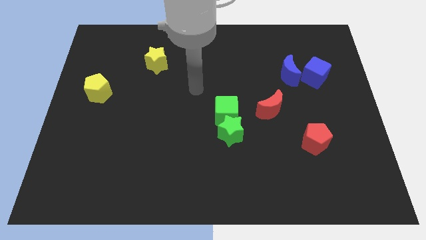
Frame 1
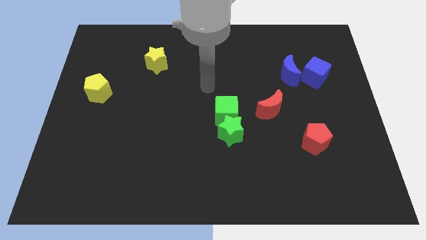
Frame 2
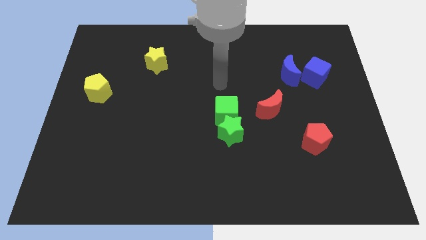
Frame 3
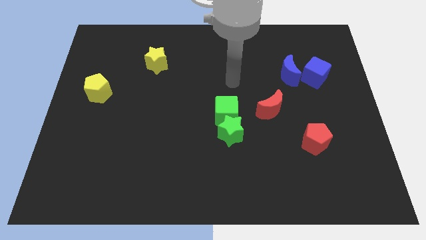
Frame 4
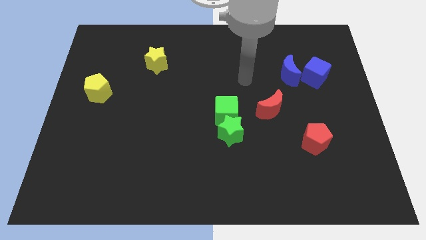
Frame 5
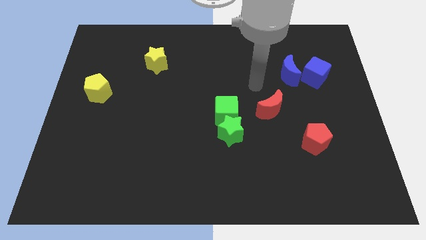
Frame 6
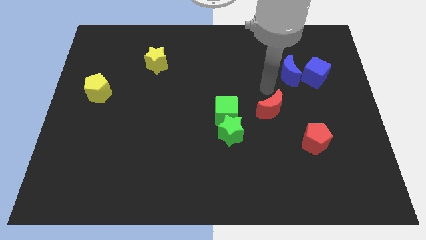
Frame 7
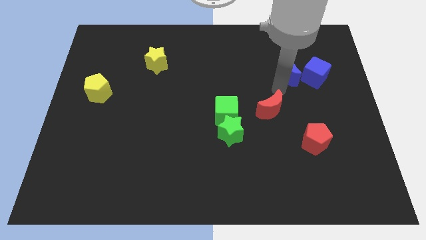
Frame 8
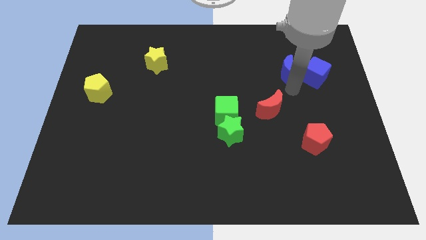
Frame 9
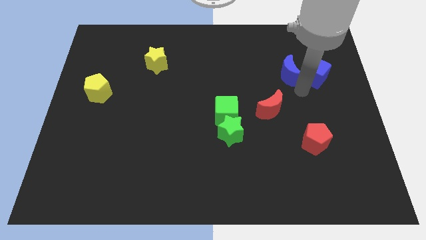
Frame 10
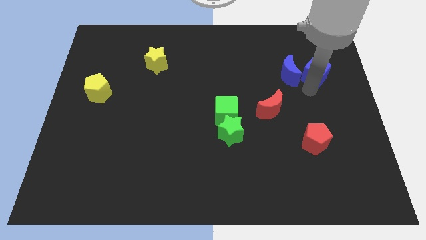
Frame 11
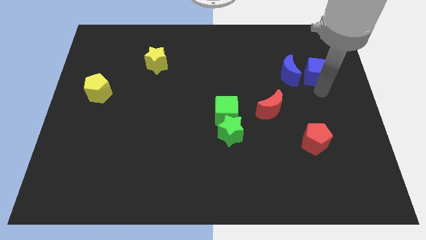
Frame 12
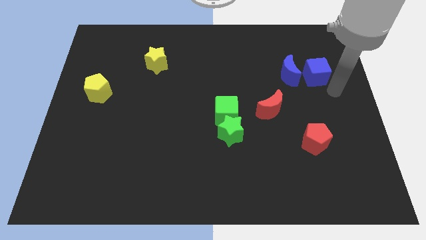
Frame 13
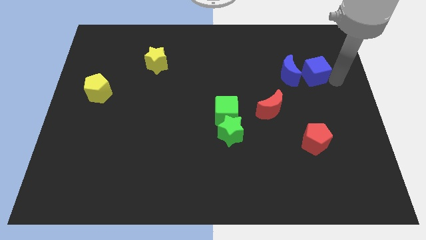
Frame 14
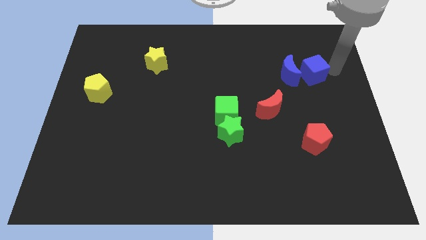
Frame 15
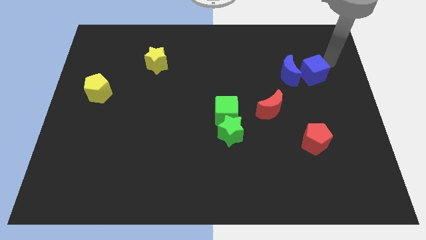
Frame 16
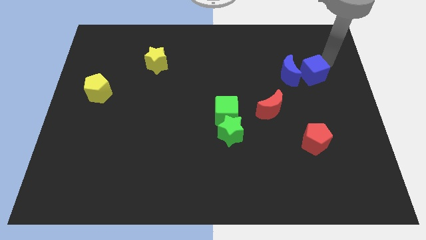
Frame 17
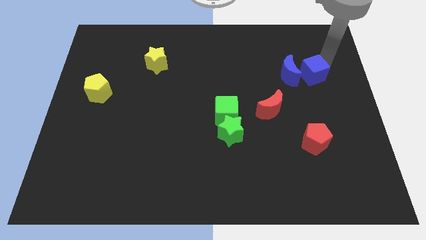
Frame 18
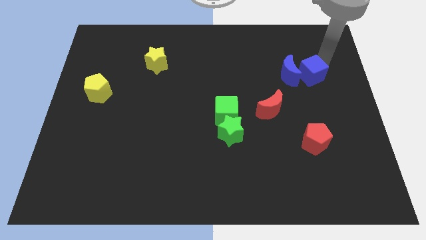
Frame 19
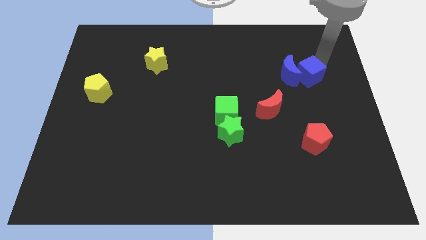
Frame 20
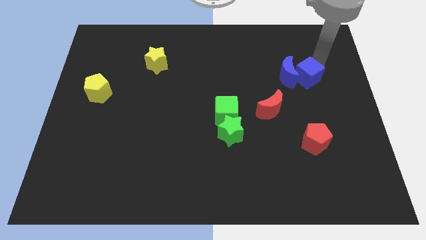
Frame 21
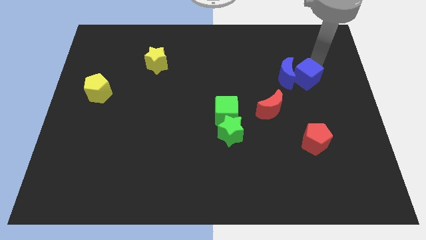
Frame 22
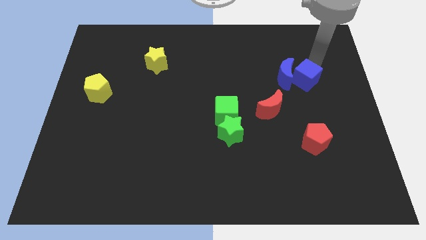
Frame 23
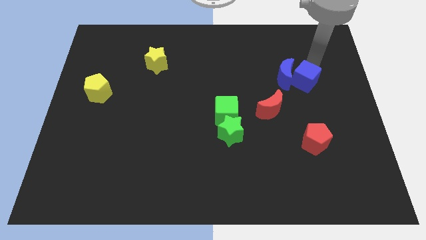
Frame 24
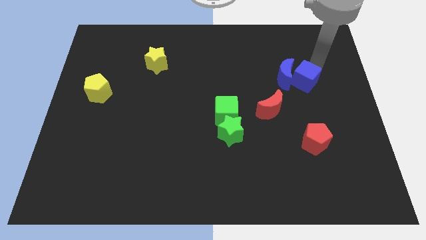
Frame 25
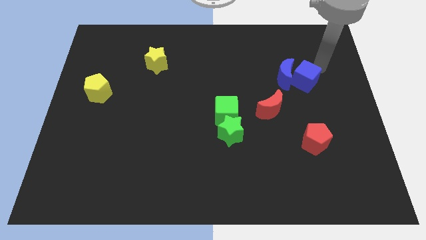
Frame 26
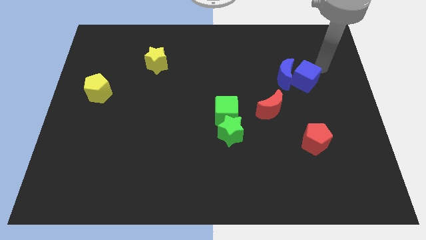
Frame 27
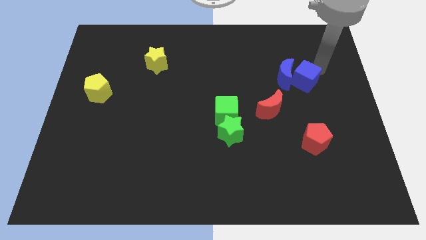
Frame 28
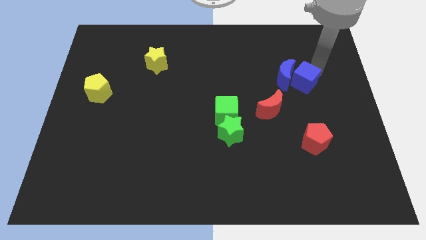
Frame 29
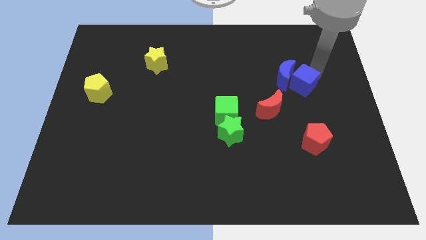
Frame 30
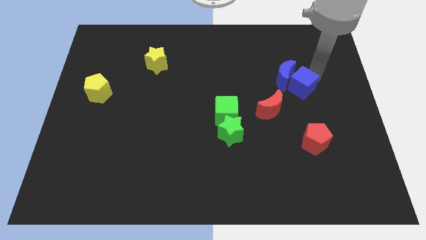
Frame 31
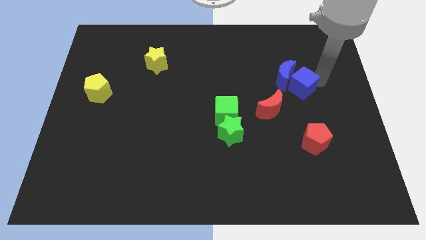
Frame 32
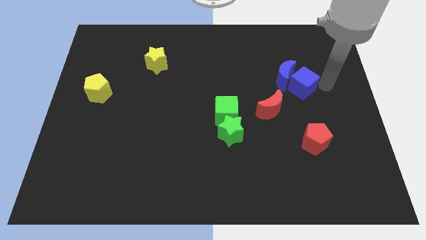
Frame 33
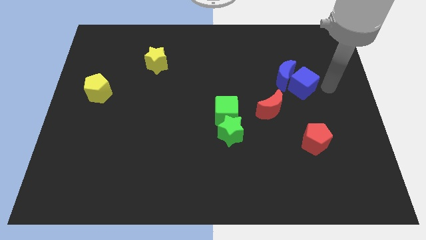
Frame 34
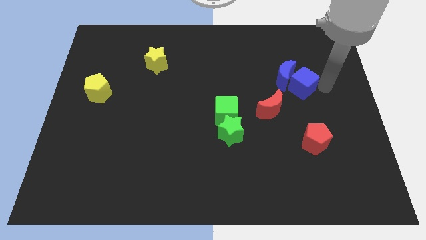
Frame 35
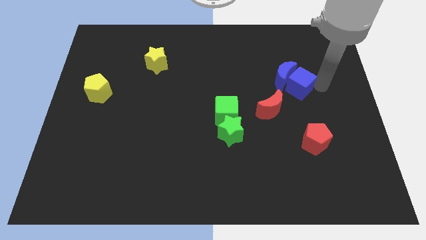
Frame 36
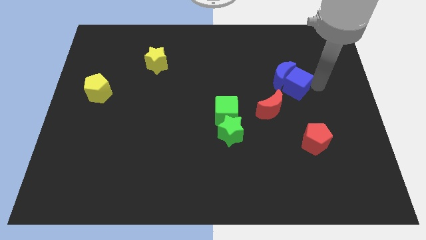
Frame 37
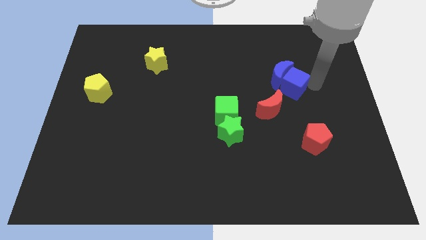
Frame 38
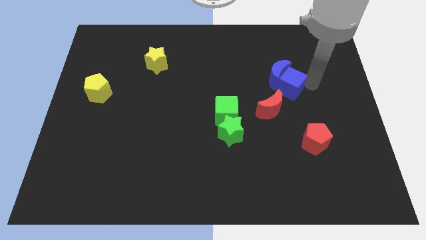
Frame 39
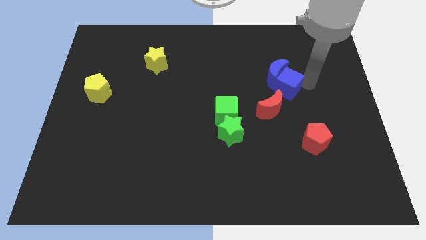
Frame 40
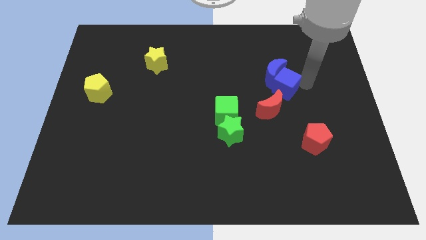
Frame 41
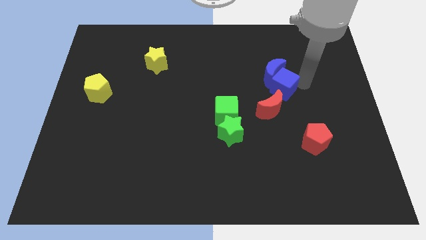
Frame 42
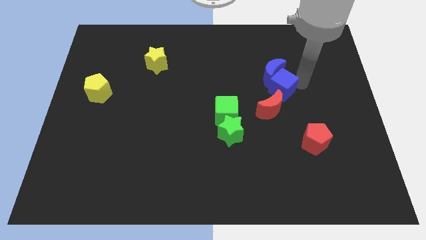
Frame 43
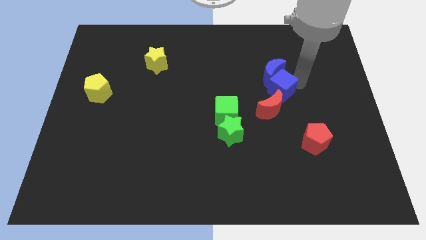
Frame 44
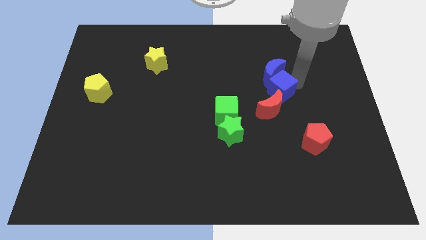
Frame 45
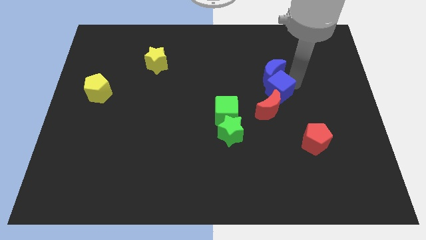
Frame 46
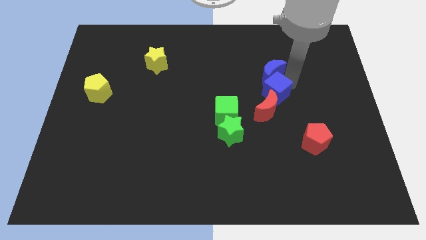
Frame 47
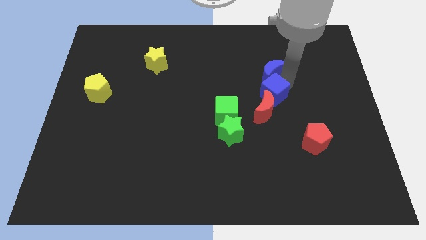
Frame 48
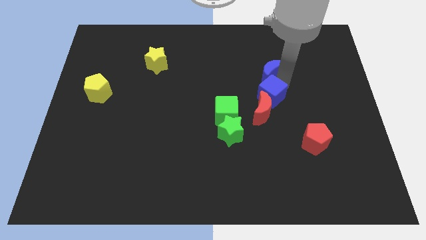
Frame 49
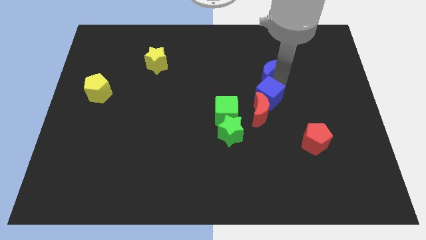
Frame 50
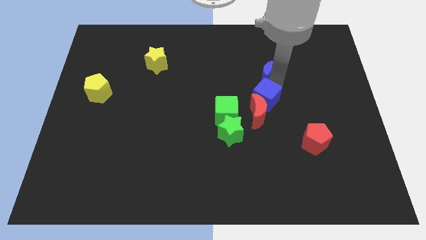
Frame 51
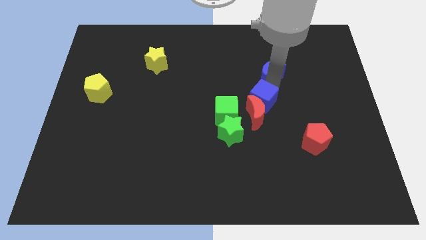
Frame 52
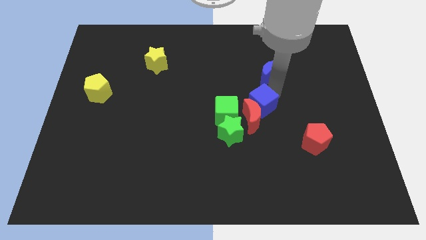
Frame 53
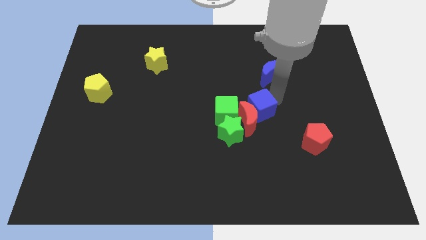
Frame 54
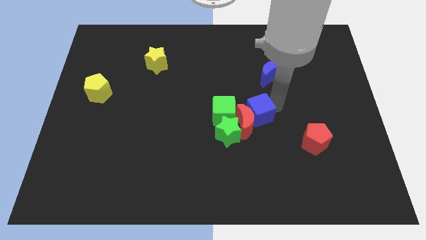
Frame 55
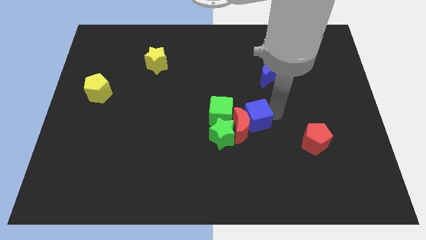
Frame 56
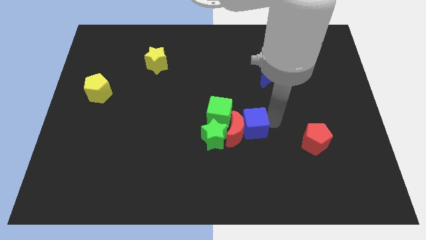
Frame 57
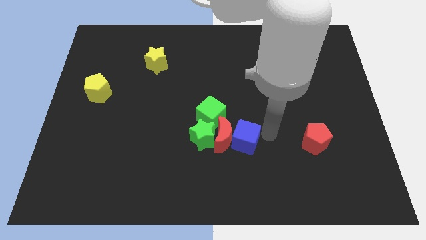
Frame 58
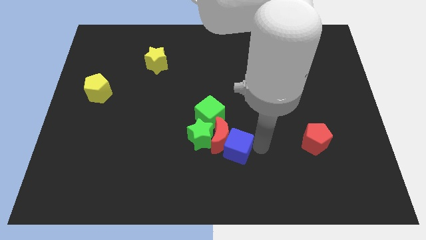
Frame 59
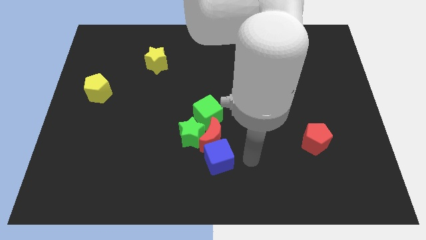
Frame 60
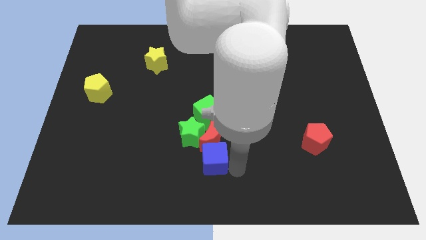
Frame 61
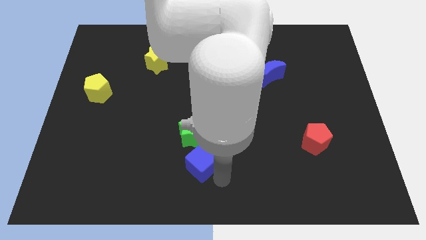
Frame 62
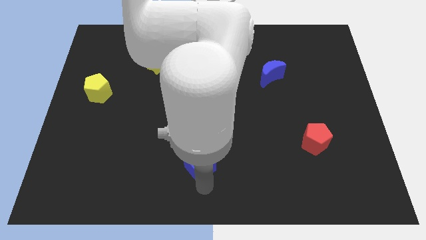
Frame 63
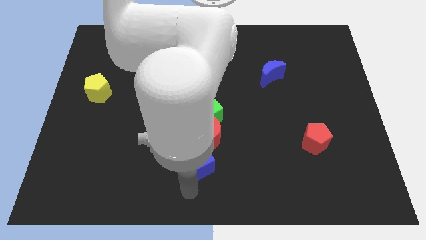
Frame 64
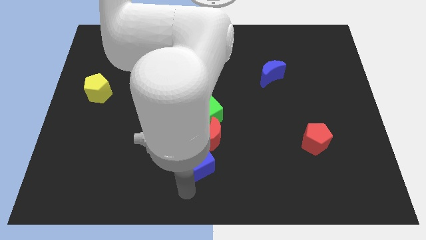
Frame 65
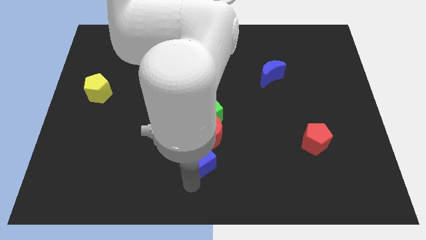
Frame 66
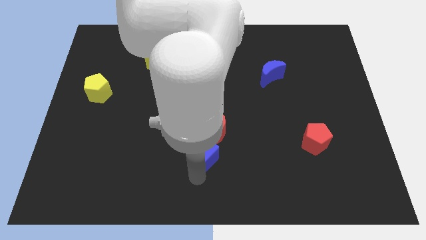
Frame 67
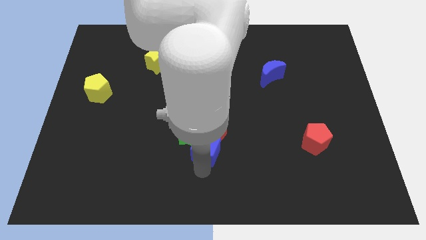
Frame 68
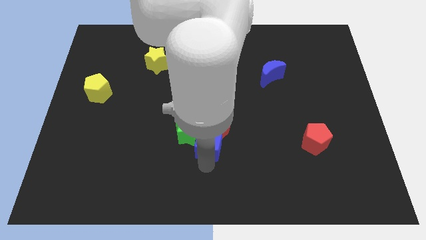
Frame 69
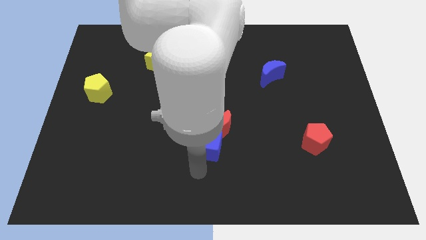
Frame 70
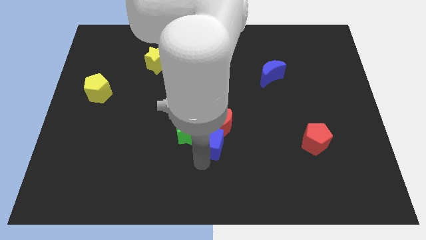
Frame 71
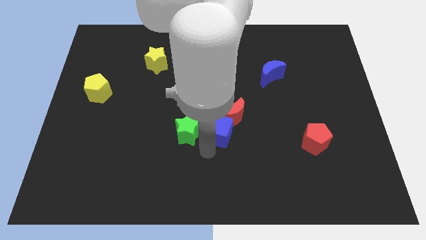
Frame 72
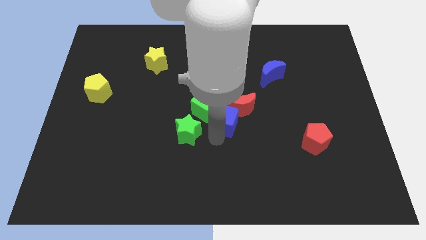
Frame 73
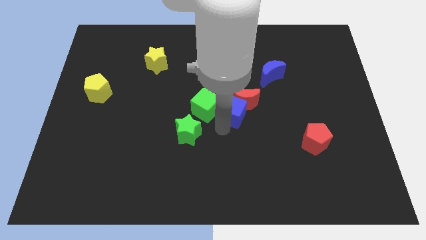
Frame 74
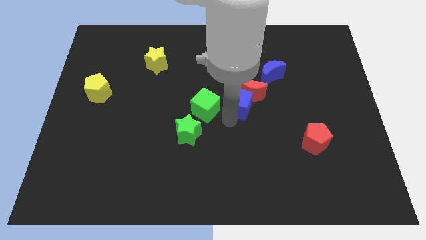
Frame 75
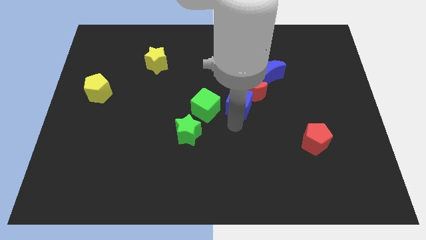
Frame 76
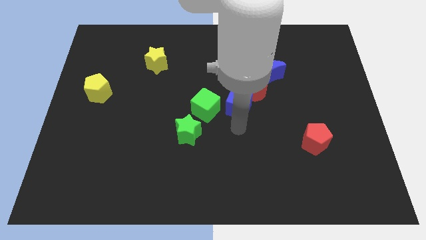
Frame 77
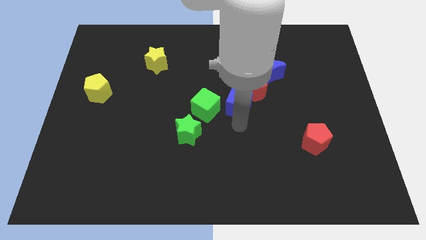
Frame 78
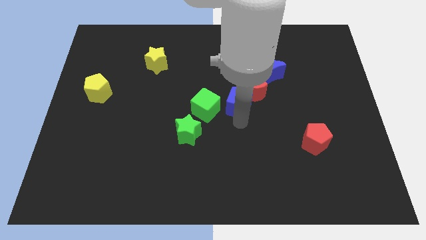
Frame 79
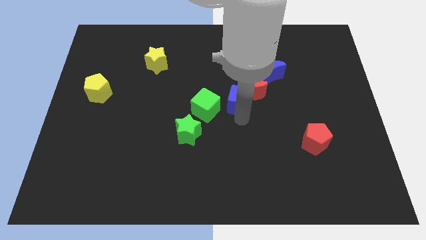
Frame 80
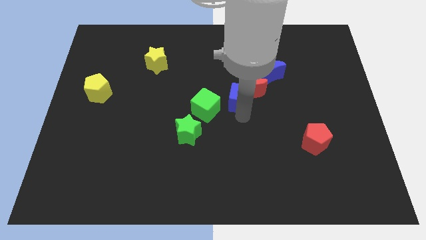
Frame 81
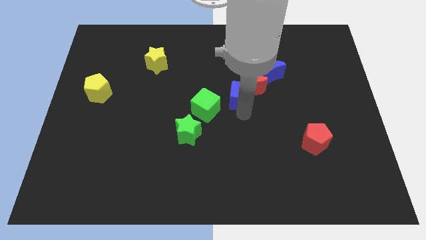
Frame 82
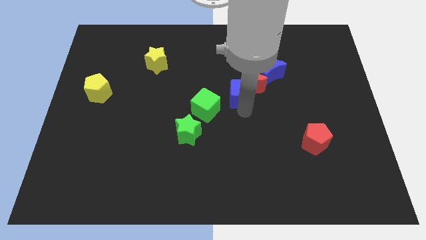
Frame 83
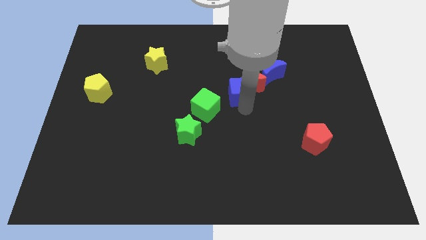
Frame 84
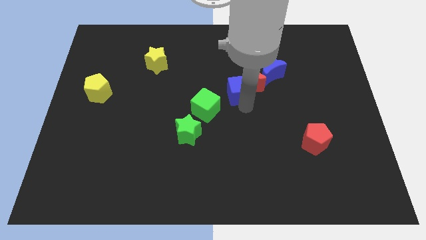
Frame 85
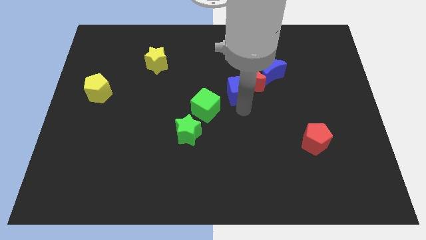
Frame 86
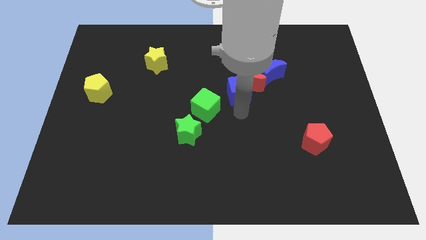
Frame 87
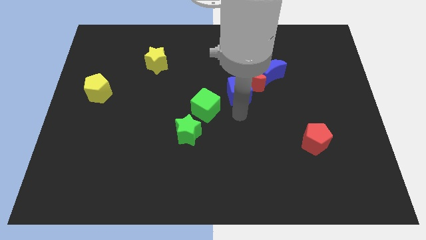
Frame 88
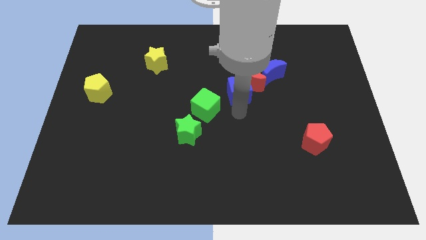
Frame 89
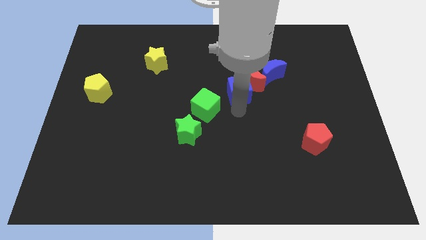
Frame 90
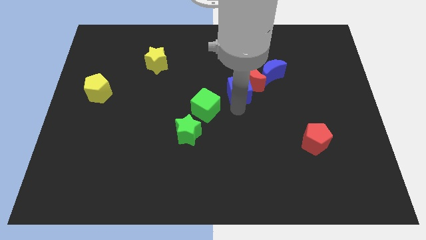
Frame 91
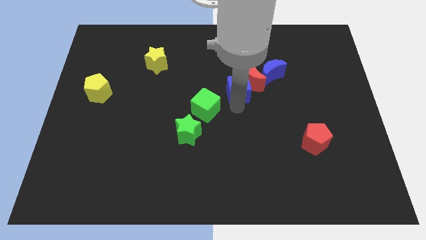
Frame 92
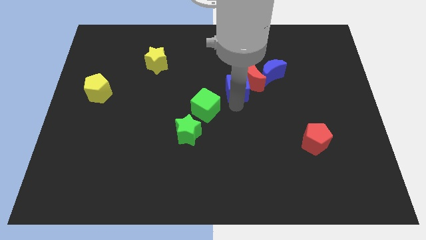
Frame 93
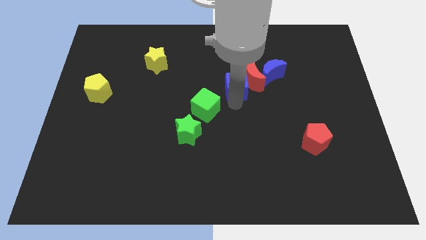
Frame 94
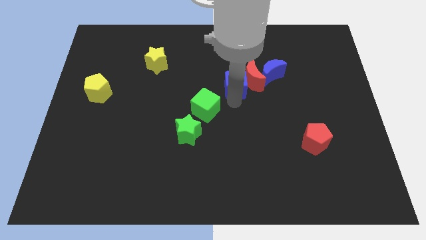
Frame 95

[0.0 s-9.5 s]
push the blue cube left
